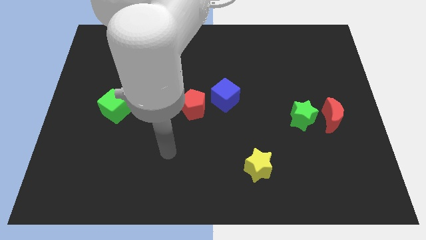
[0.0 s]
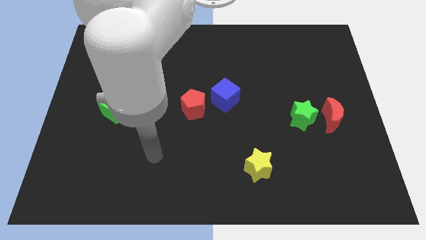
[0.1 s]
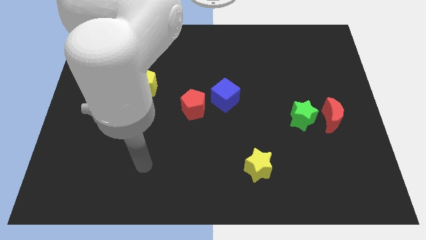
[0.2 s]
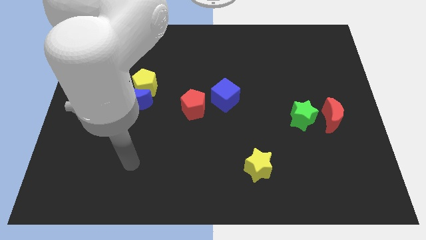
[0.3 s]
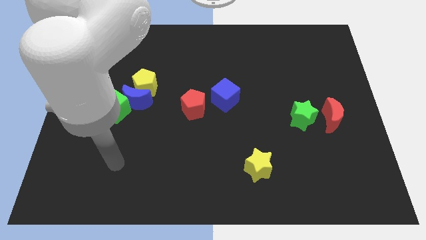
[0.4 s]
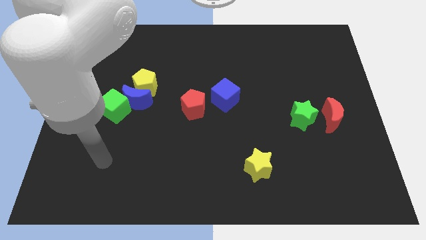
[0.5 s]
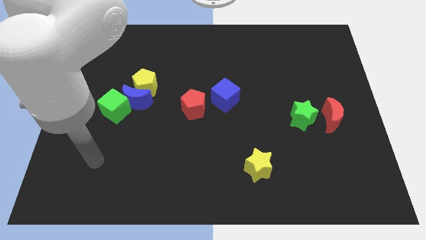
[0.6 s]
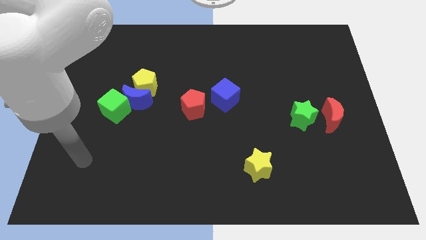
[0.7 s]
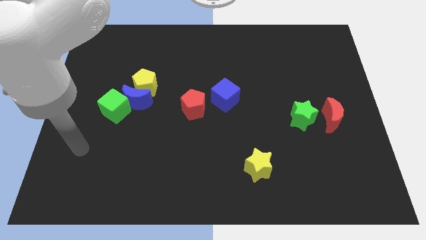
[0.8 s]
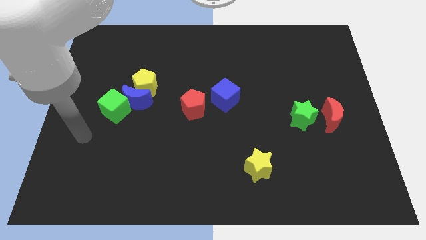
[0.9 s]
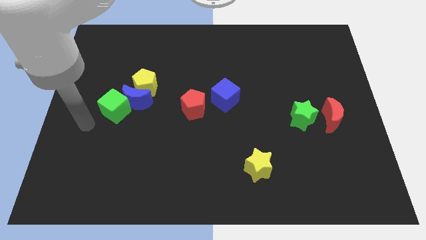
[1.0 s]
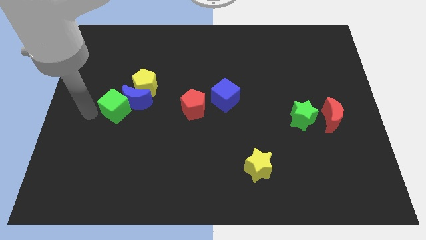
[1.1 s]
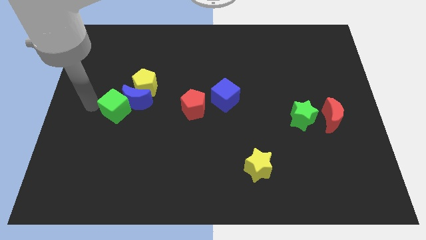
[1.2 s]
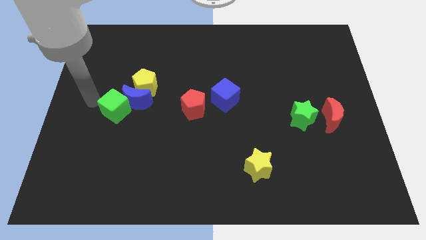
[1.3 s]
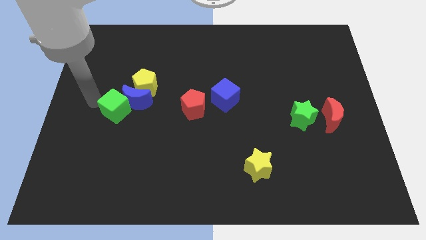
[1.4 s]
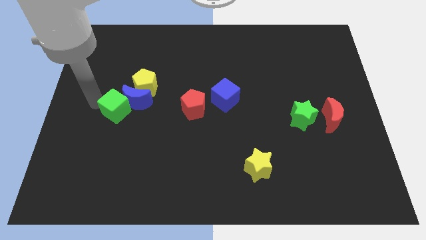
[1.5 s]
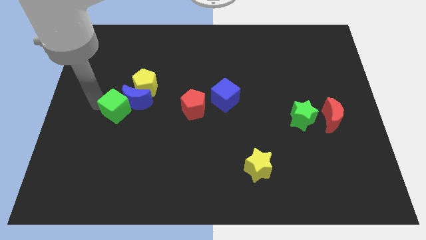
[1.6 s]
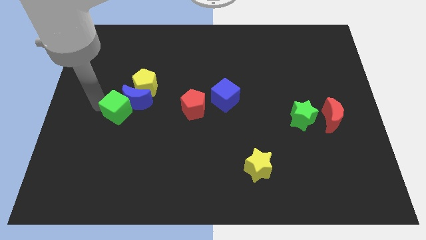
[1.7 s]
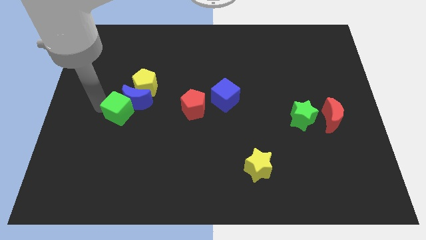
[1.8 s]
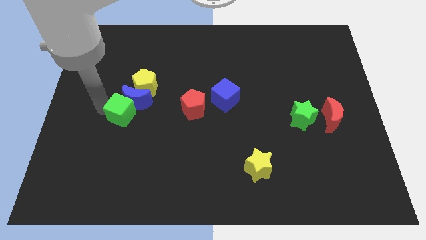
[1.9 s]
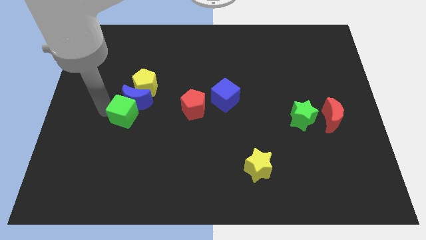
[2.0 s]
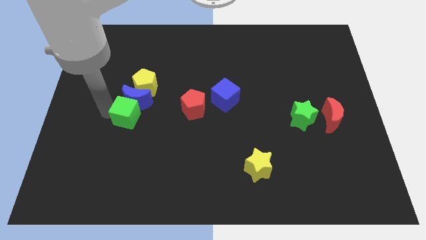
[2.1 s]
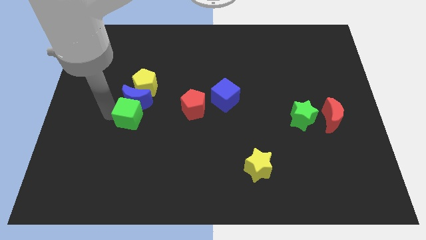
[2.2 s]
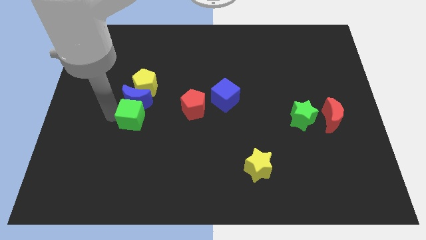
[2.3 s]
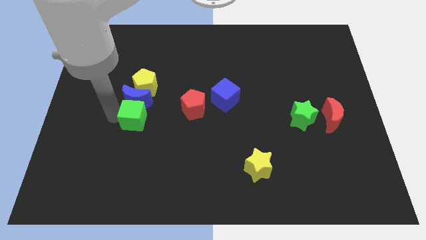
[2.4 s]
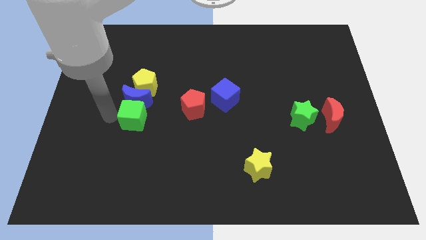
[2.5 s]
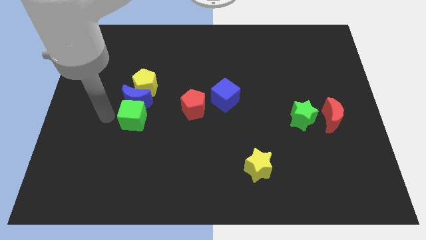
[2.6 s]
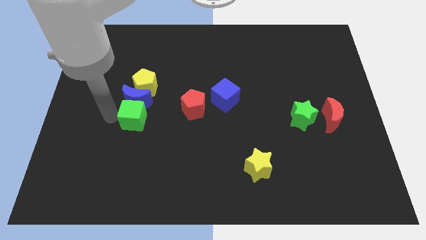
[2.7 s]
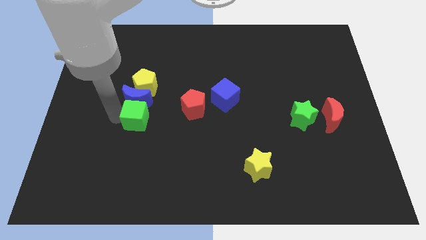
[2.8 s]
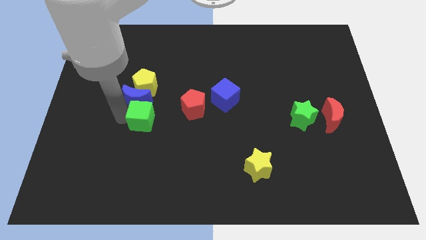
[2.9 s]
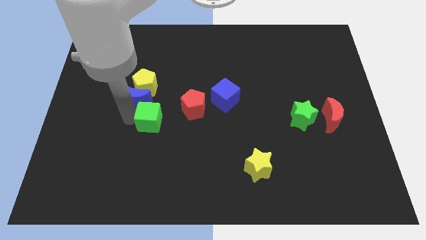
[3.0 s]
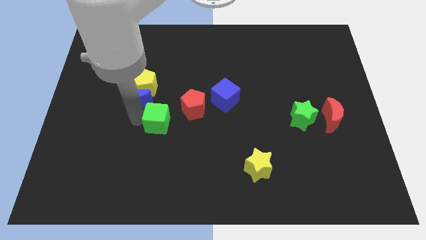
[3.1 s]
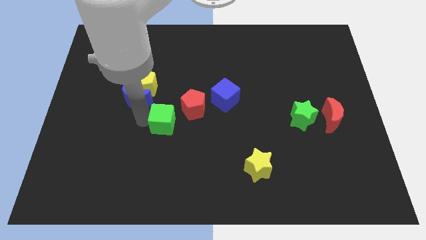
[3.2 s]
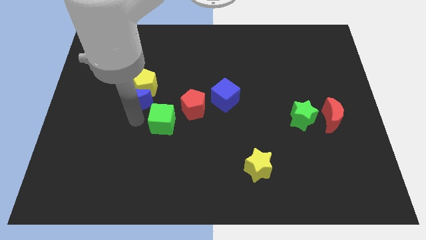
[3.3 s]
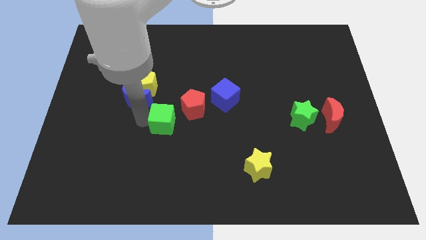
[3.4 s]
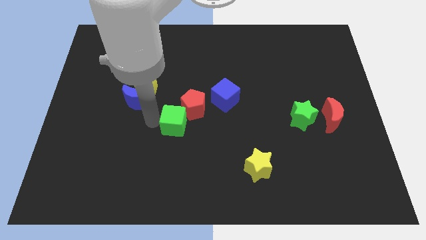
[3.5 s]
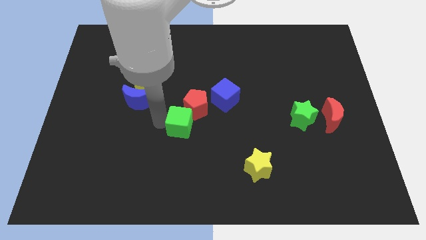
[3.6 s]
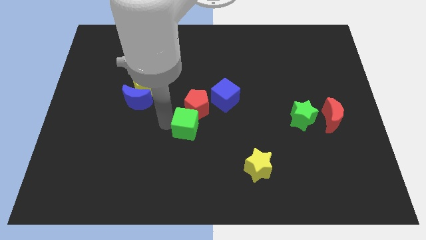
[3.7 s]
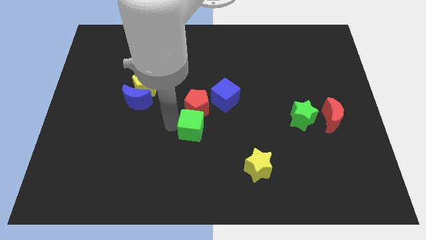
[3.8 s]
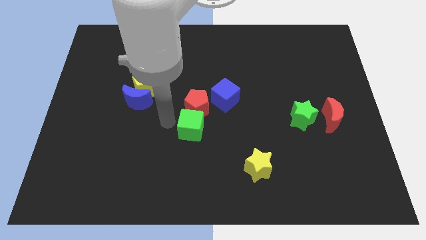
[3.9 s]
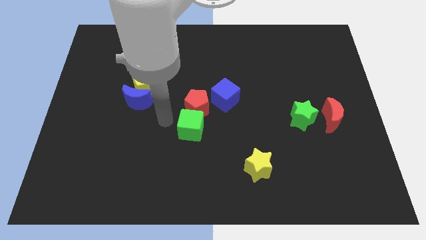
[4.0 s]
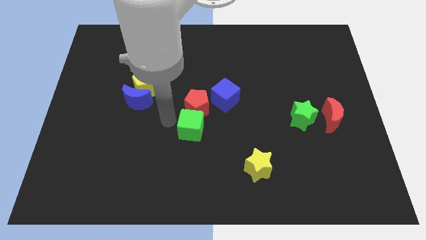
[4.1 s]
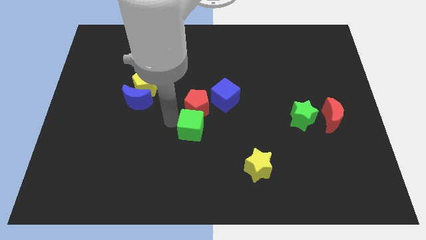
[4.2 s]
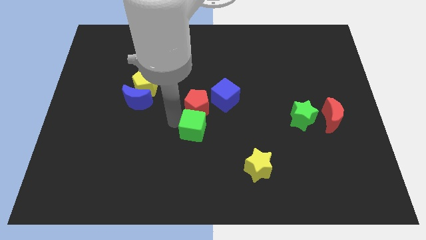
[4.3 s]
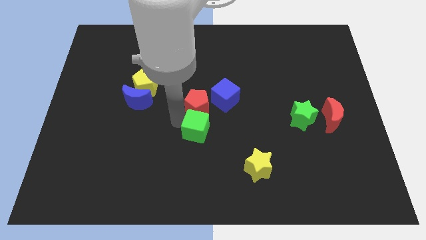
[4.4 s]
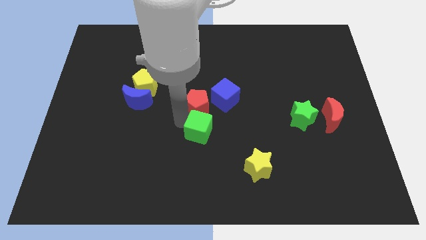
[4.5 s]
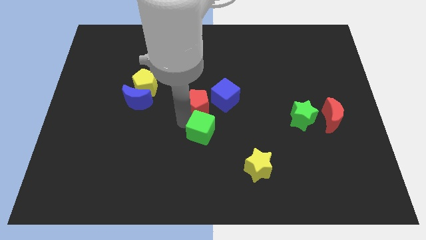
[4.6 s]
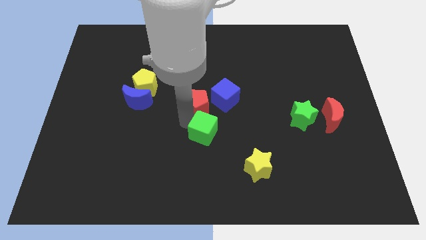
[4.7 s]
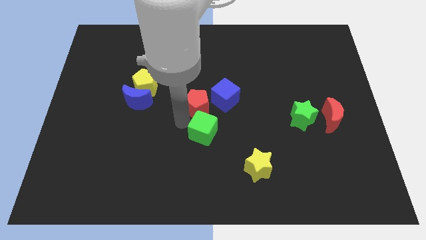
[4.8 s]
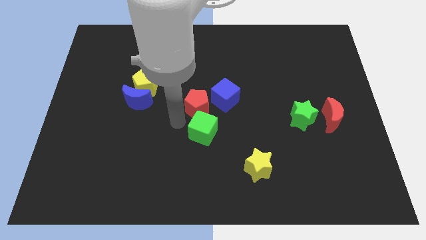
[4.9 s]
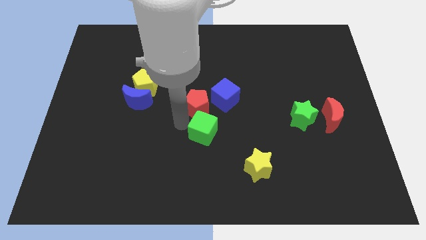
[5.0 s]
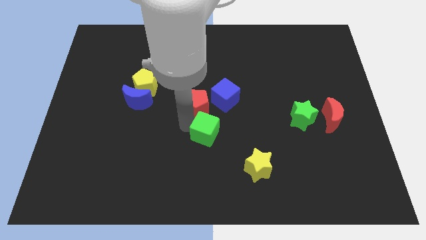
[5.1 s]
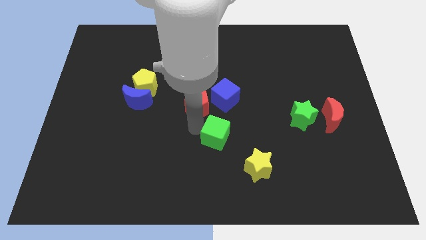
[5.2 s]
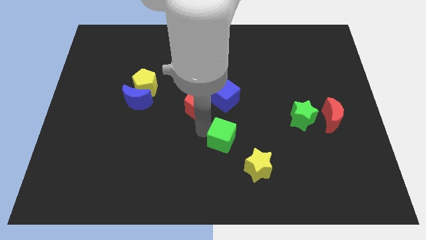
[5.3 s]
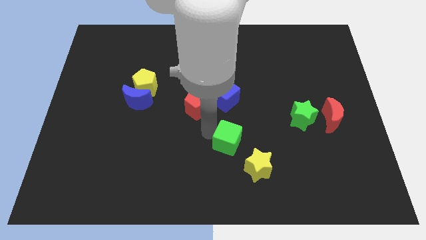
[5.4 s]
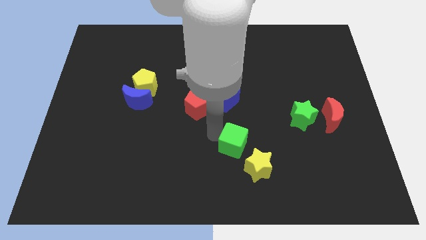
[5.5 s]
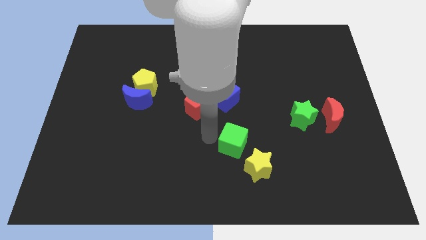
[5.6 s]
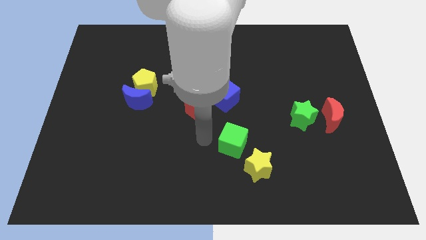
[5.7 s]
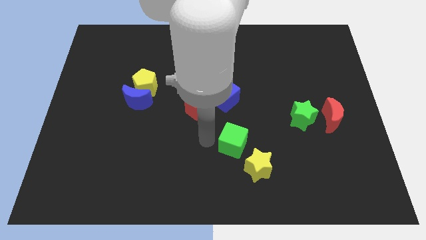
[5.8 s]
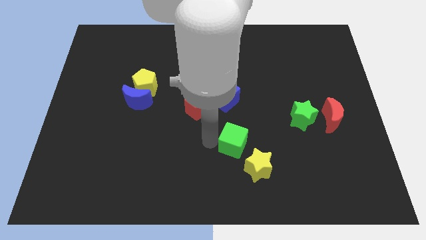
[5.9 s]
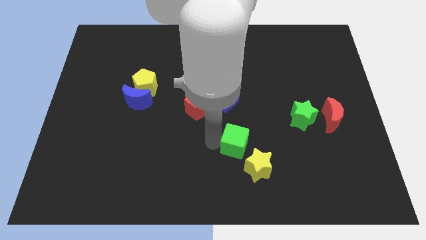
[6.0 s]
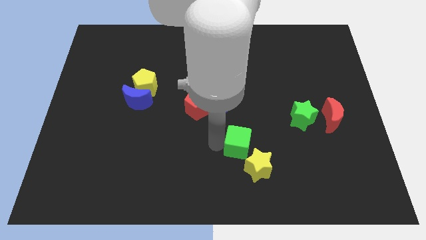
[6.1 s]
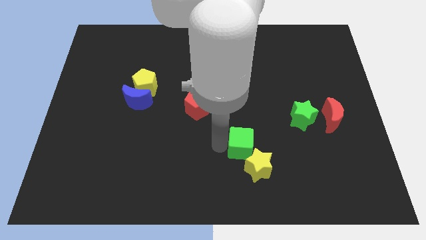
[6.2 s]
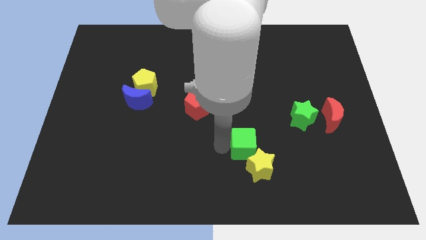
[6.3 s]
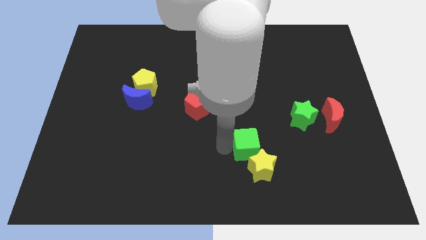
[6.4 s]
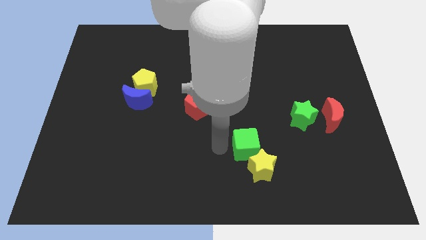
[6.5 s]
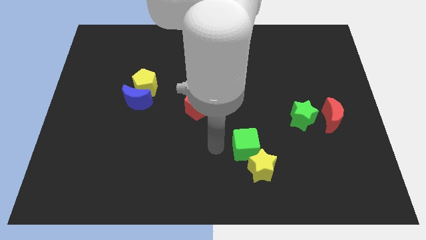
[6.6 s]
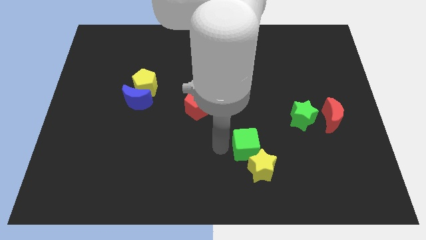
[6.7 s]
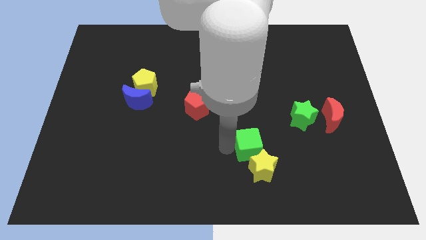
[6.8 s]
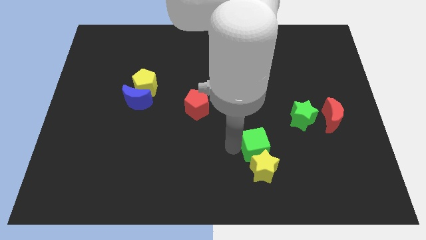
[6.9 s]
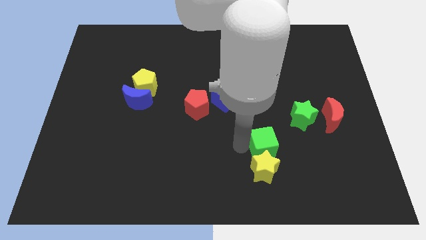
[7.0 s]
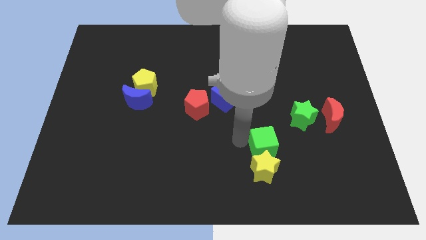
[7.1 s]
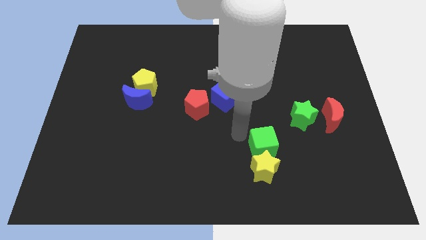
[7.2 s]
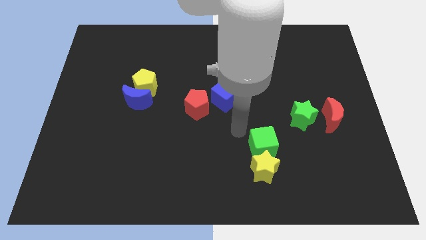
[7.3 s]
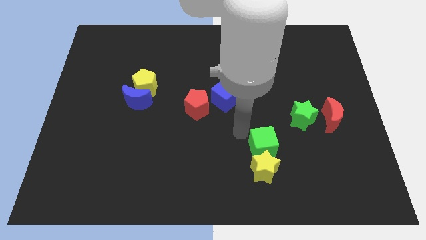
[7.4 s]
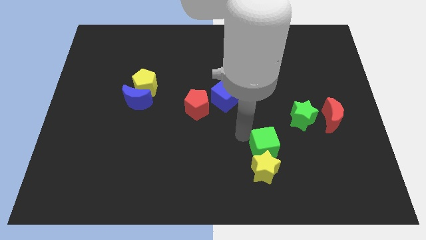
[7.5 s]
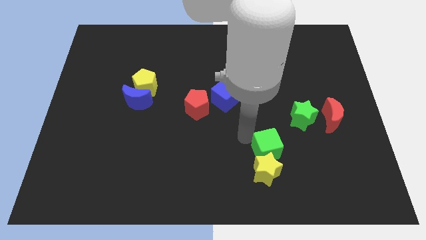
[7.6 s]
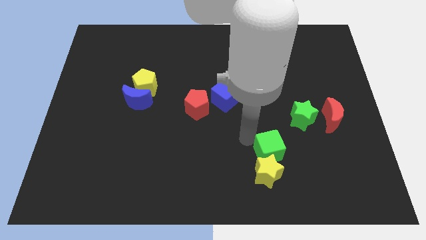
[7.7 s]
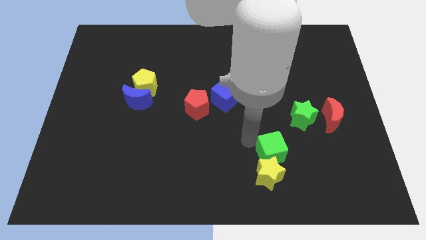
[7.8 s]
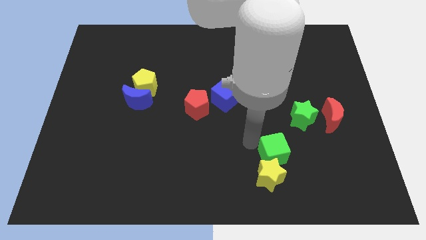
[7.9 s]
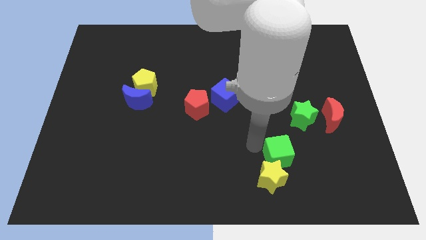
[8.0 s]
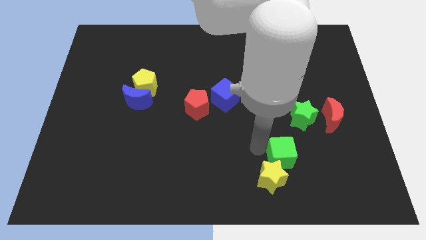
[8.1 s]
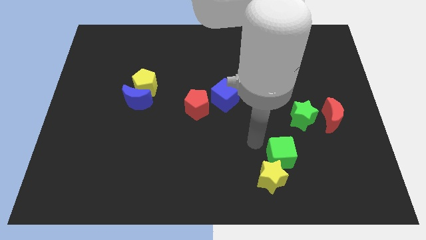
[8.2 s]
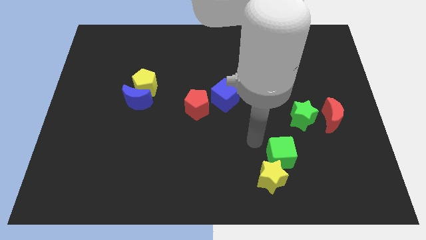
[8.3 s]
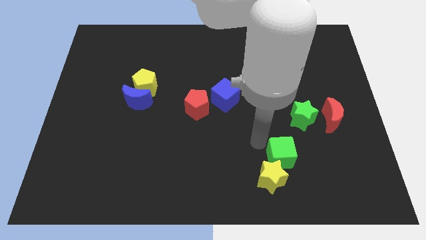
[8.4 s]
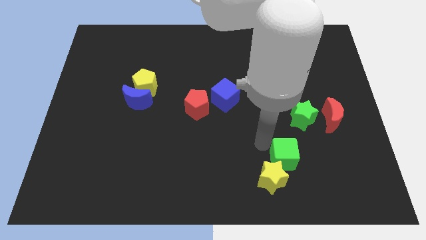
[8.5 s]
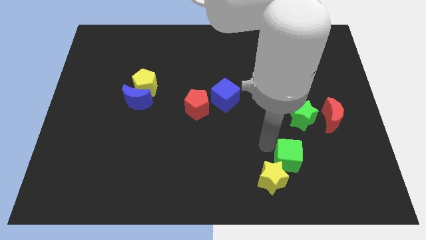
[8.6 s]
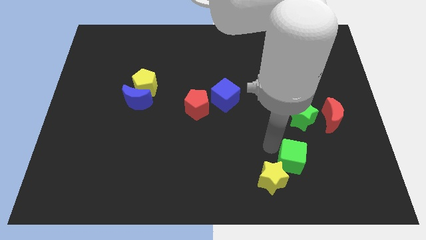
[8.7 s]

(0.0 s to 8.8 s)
slide the green cube to the right side of the yellow star
